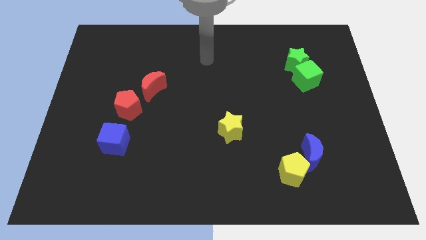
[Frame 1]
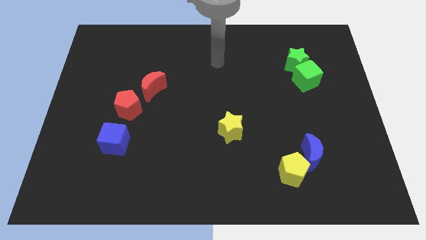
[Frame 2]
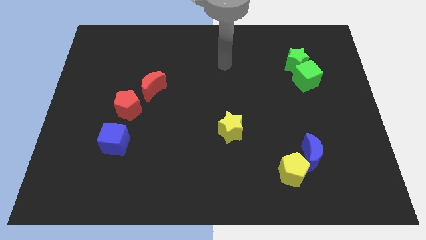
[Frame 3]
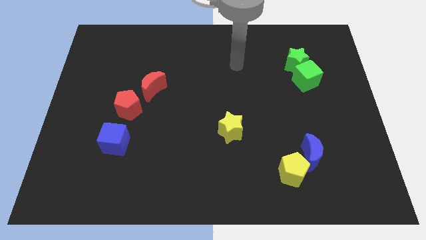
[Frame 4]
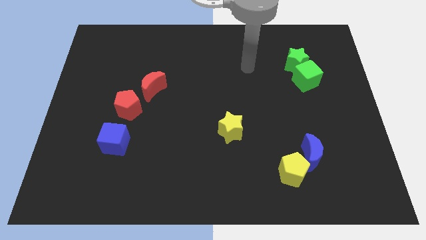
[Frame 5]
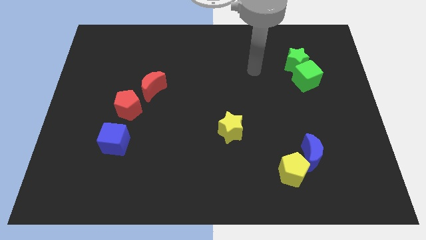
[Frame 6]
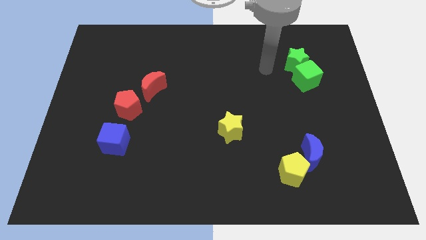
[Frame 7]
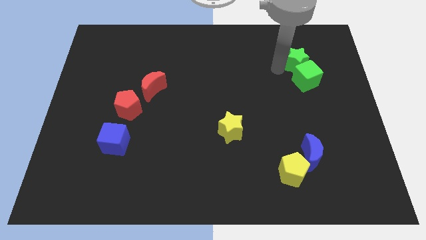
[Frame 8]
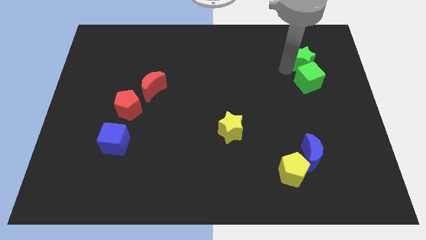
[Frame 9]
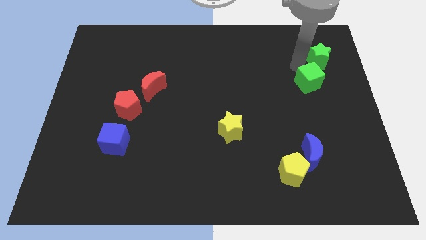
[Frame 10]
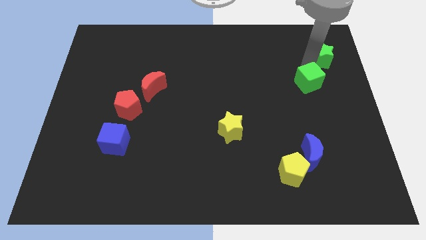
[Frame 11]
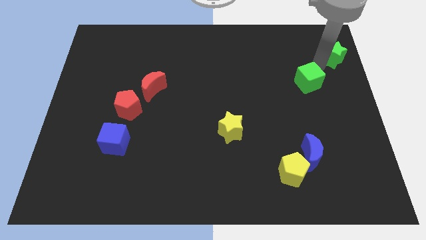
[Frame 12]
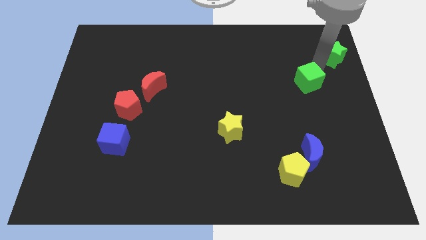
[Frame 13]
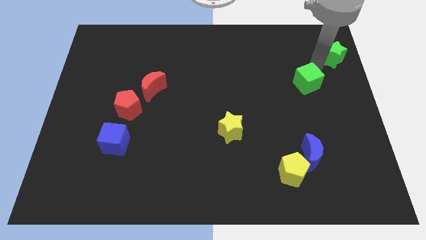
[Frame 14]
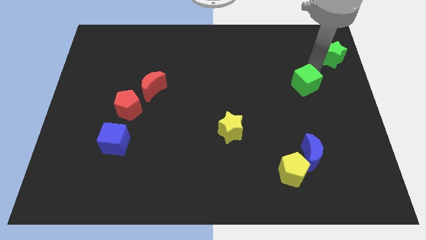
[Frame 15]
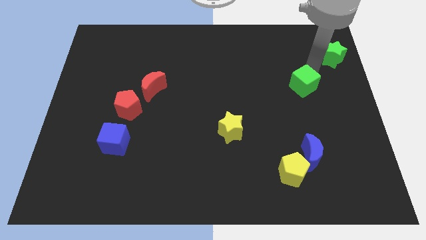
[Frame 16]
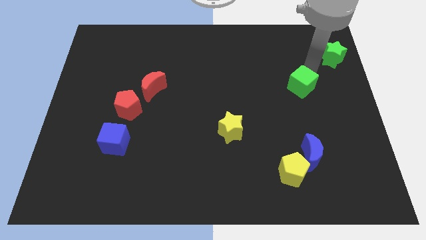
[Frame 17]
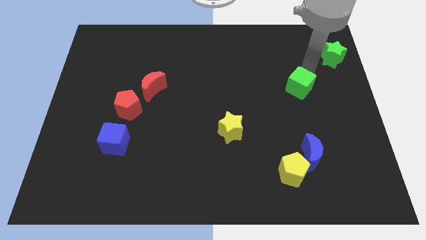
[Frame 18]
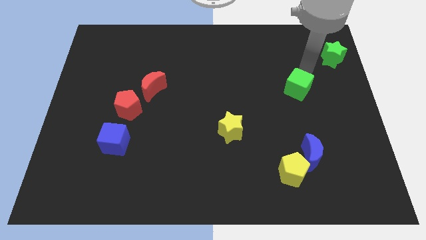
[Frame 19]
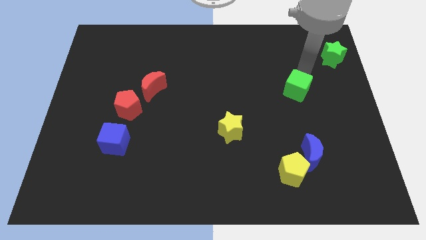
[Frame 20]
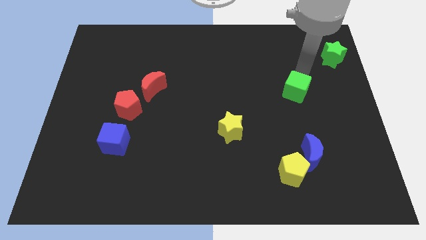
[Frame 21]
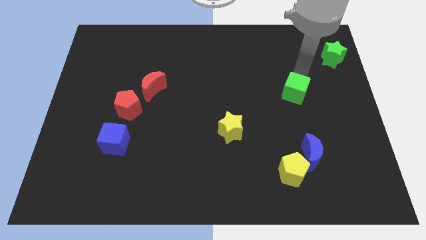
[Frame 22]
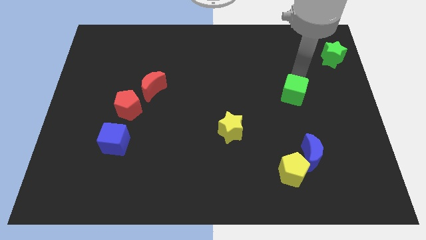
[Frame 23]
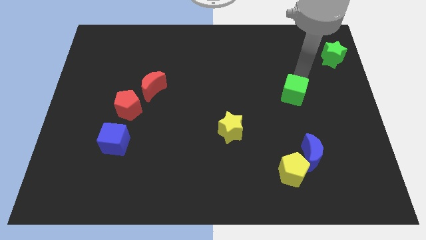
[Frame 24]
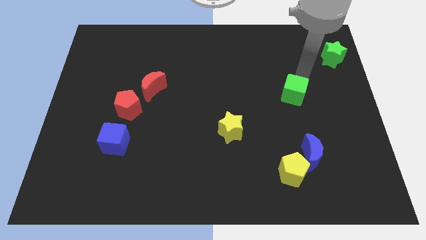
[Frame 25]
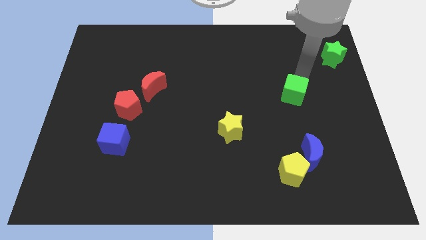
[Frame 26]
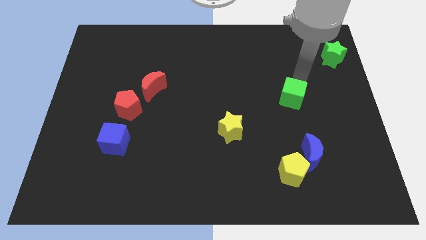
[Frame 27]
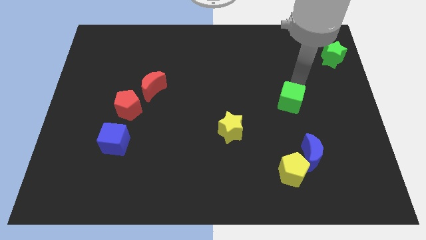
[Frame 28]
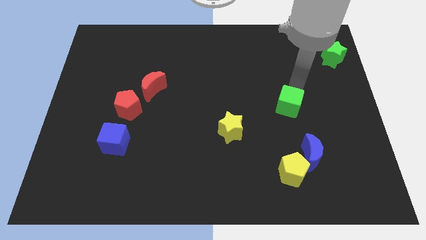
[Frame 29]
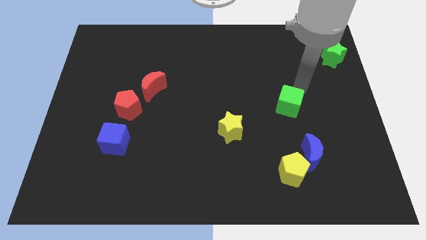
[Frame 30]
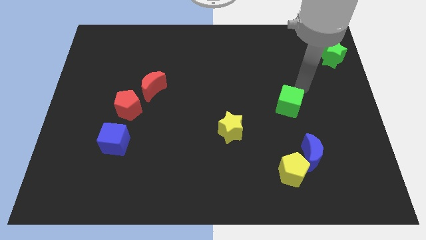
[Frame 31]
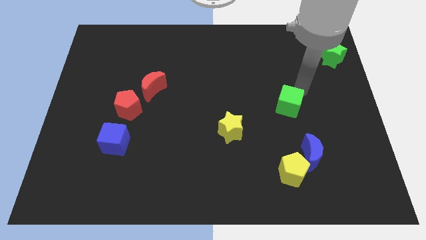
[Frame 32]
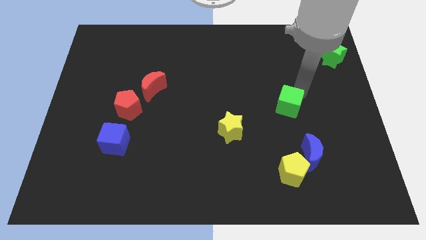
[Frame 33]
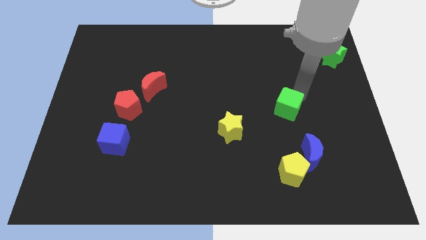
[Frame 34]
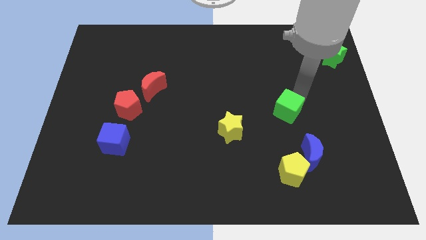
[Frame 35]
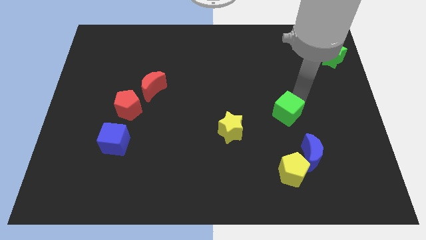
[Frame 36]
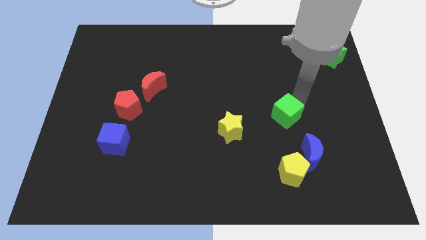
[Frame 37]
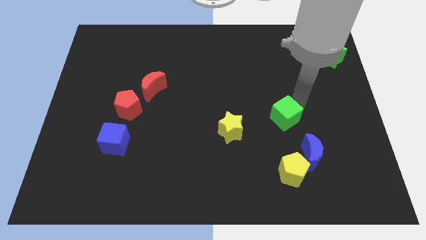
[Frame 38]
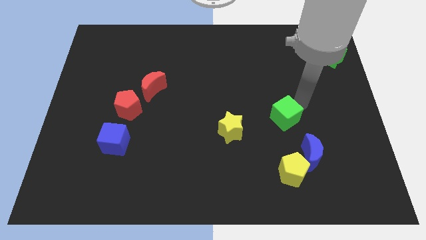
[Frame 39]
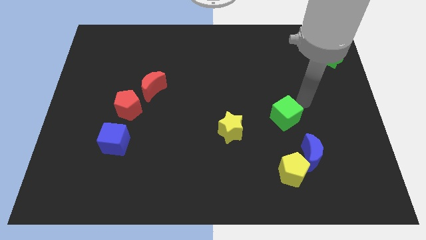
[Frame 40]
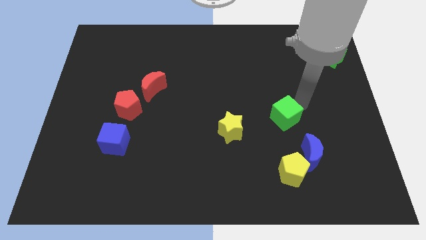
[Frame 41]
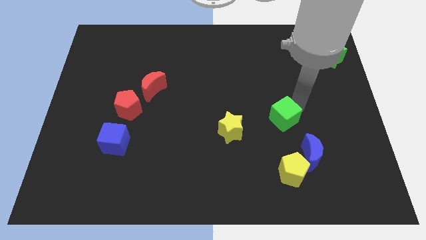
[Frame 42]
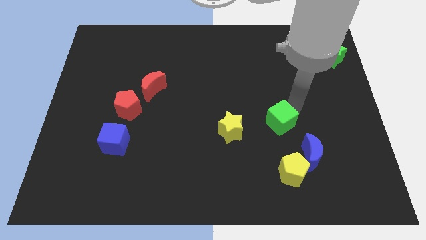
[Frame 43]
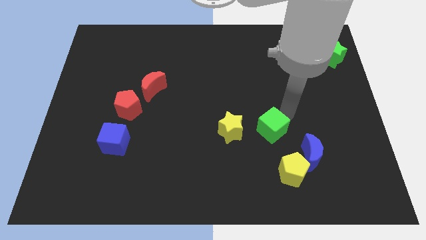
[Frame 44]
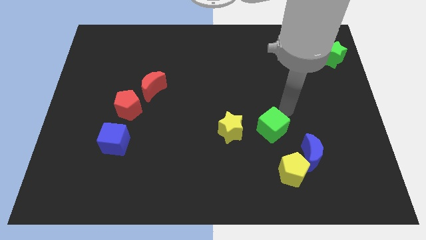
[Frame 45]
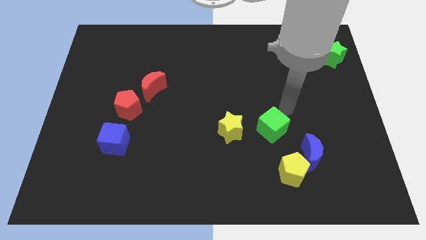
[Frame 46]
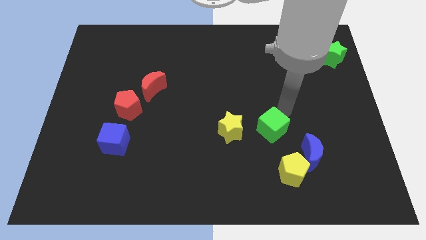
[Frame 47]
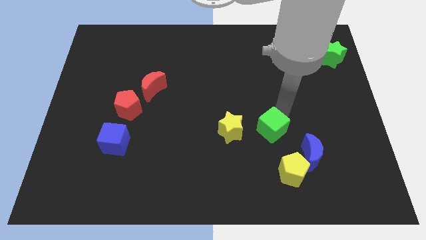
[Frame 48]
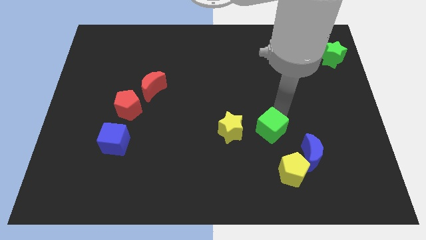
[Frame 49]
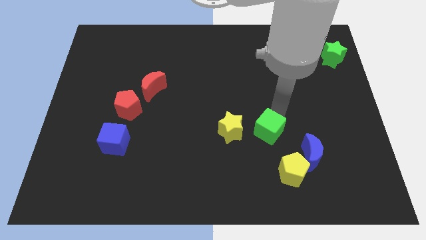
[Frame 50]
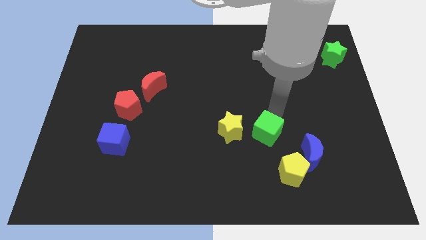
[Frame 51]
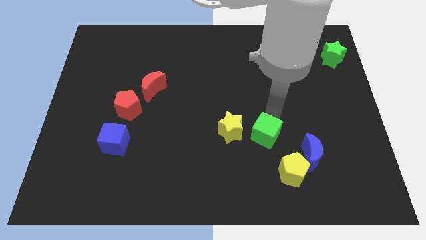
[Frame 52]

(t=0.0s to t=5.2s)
put the green cube to the bottom right of the yellow star

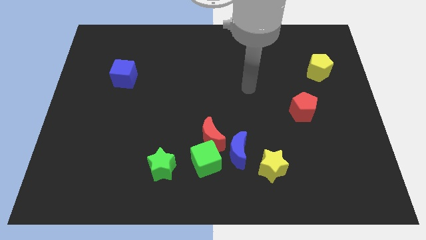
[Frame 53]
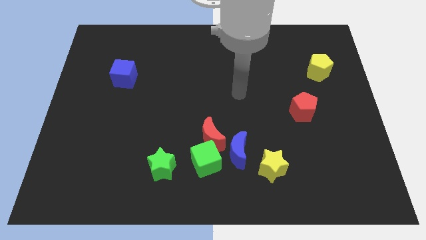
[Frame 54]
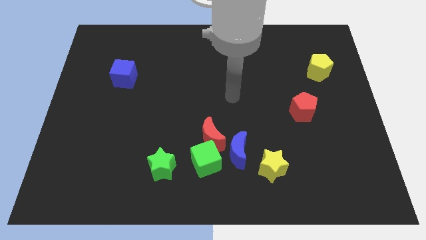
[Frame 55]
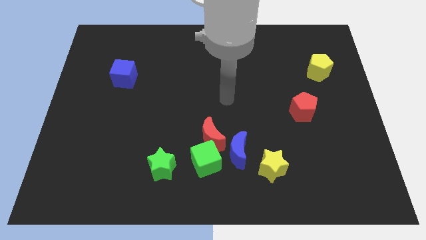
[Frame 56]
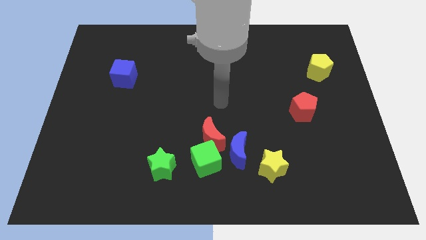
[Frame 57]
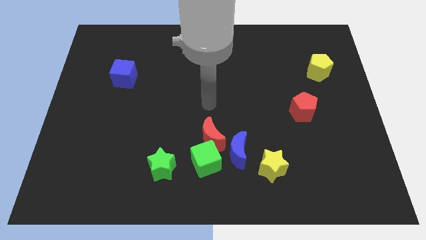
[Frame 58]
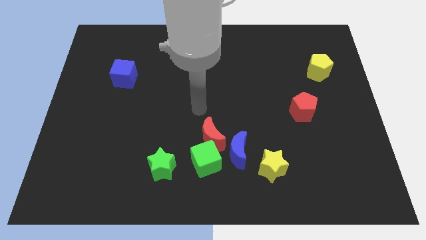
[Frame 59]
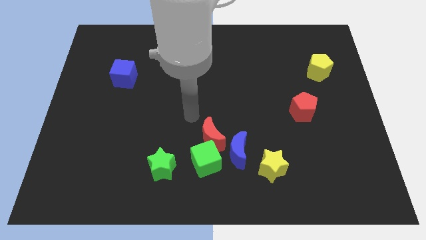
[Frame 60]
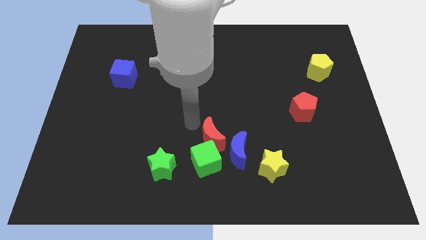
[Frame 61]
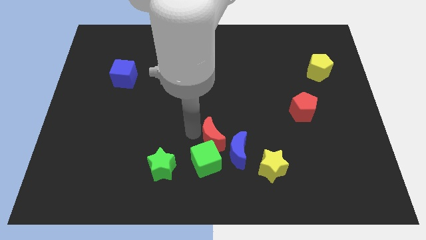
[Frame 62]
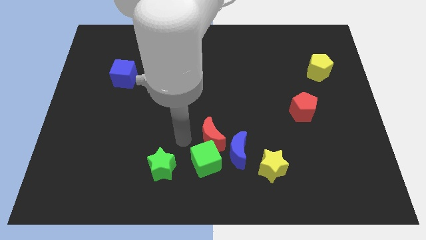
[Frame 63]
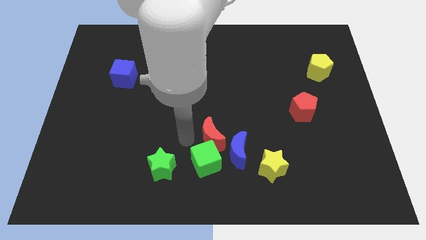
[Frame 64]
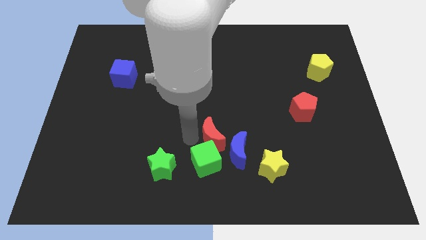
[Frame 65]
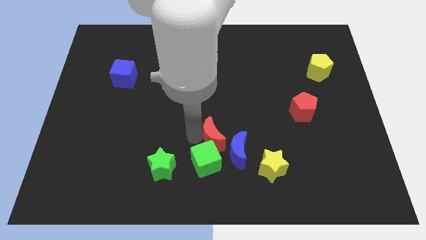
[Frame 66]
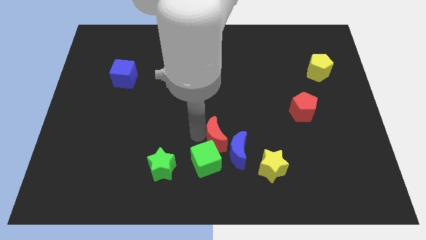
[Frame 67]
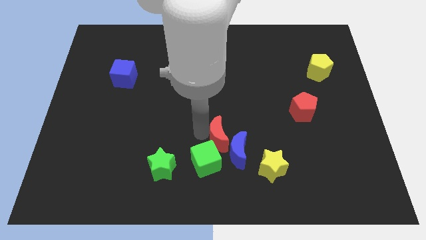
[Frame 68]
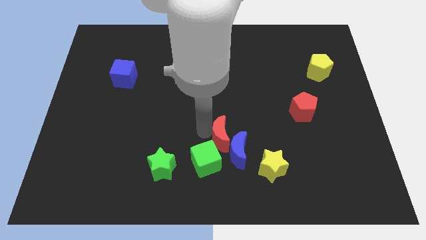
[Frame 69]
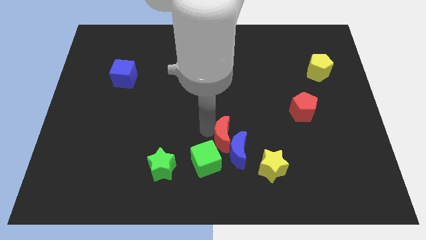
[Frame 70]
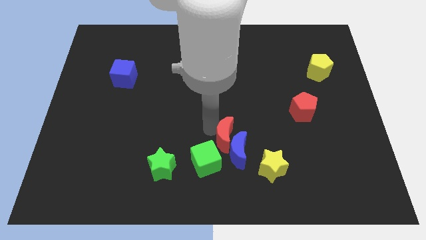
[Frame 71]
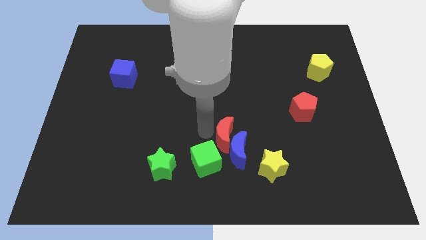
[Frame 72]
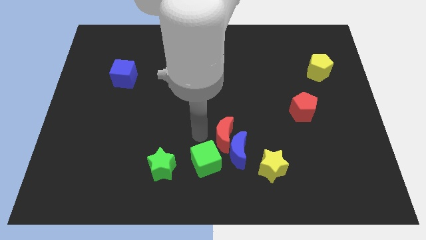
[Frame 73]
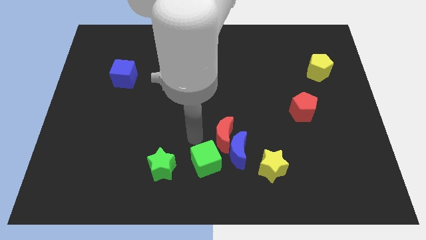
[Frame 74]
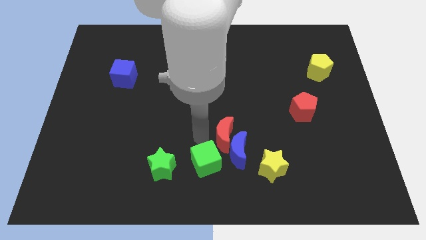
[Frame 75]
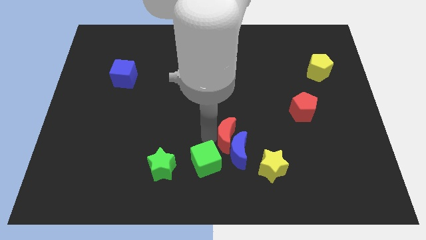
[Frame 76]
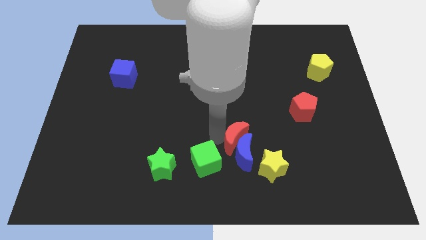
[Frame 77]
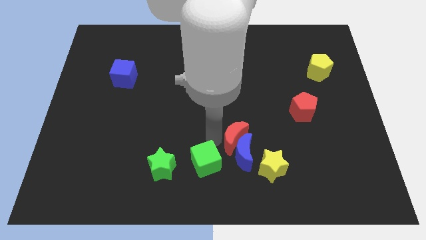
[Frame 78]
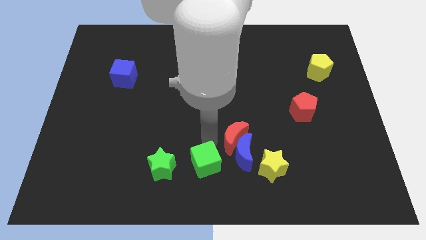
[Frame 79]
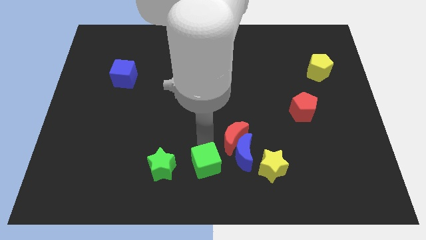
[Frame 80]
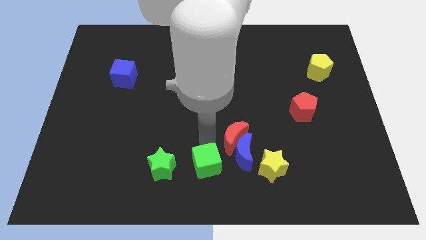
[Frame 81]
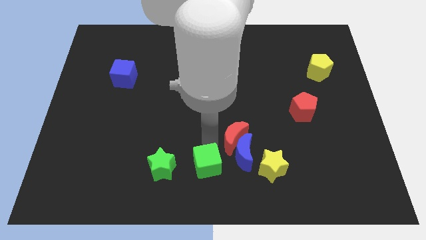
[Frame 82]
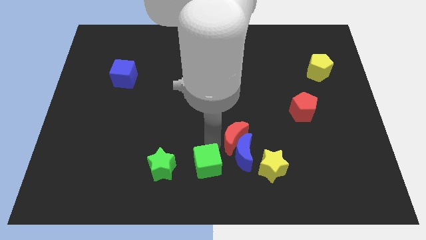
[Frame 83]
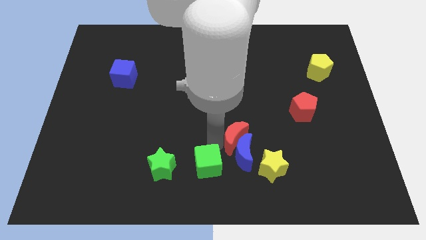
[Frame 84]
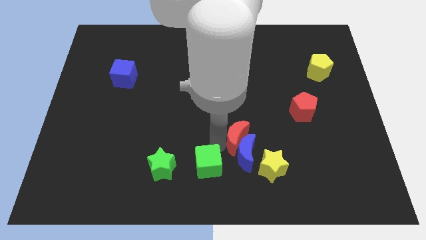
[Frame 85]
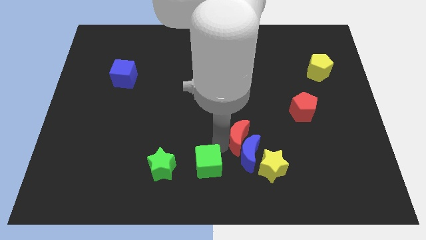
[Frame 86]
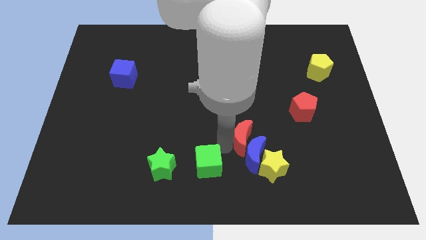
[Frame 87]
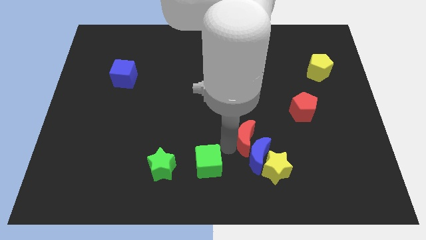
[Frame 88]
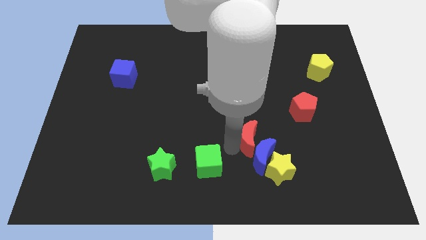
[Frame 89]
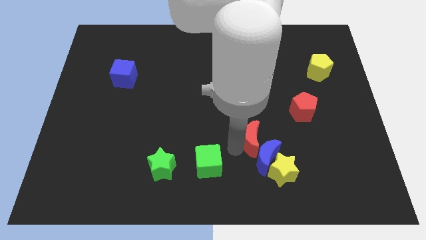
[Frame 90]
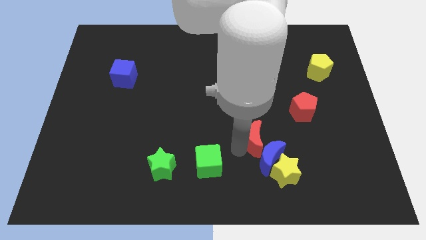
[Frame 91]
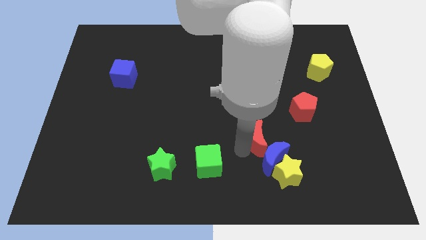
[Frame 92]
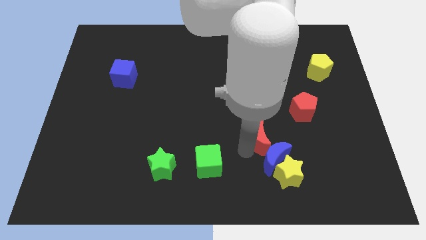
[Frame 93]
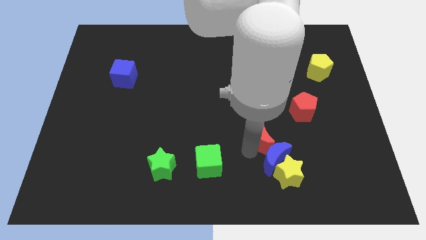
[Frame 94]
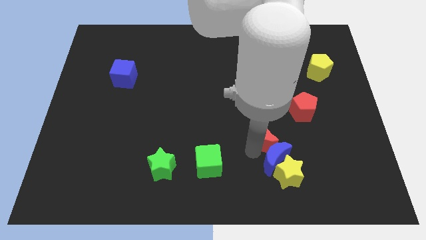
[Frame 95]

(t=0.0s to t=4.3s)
slide the red moon to the top side of the yellow star
